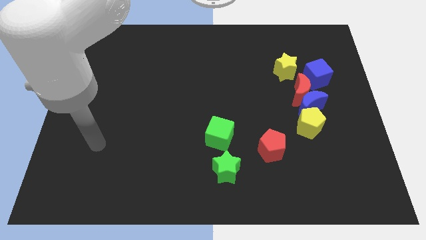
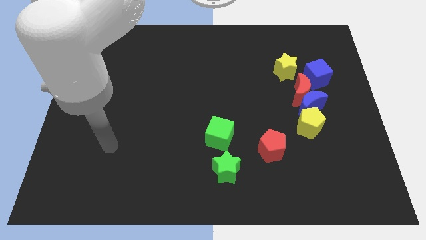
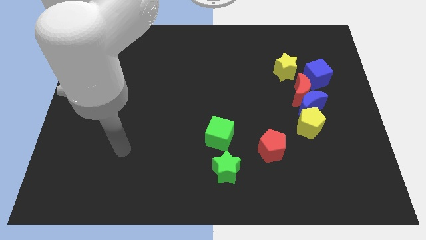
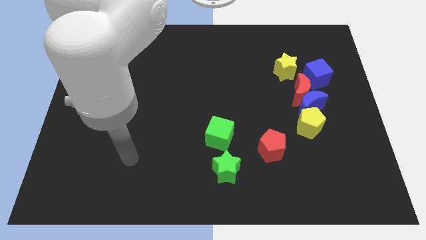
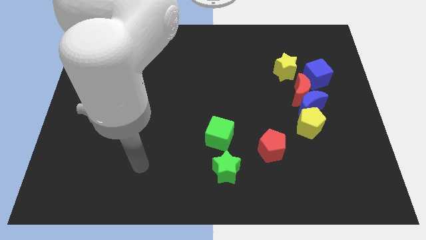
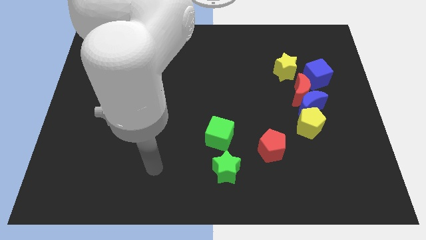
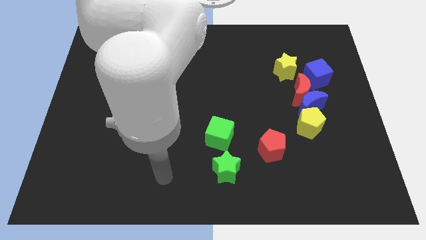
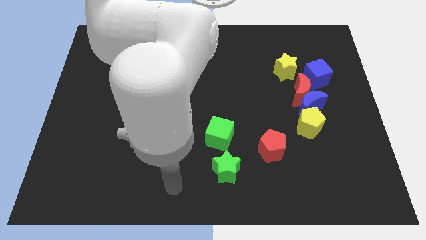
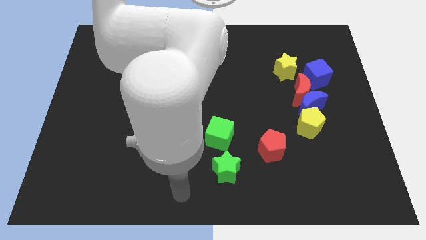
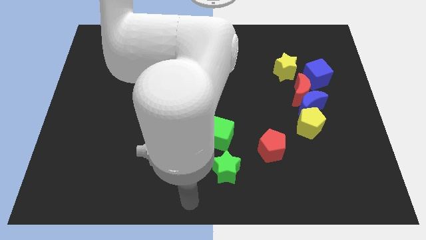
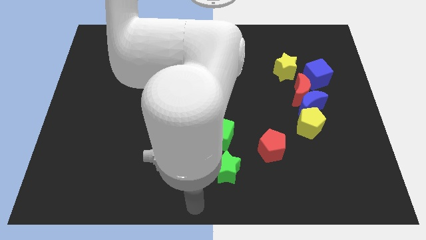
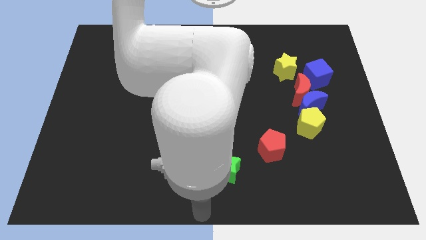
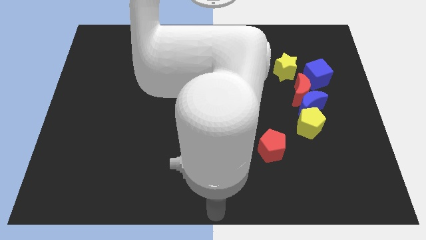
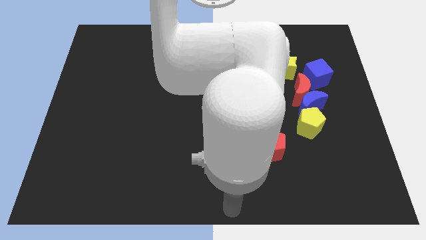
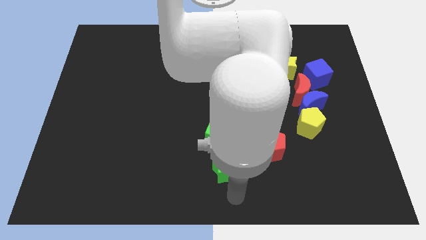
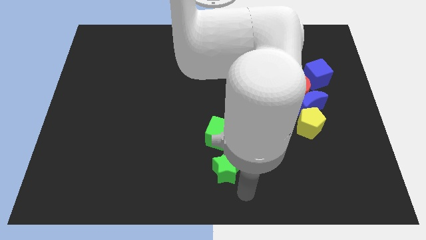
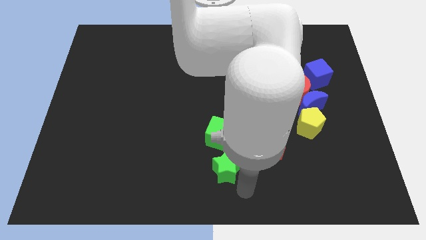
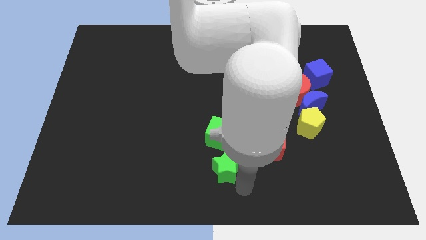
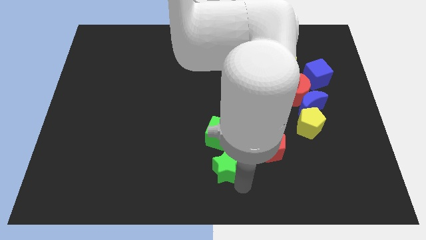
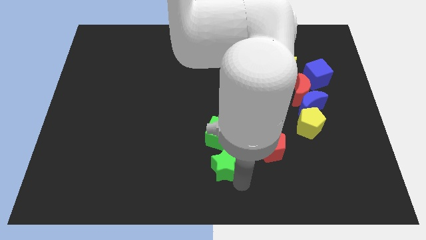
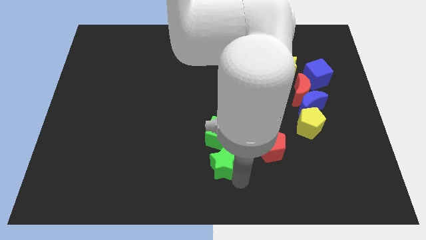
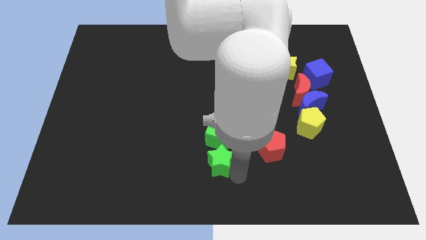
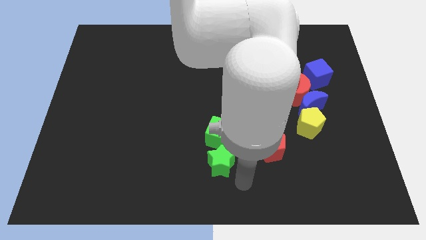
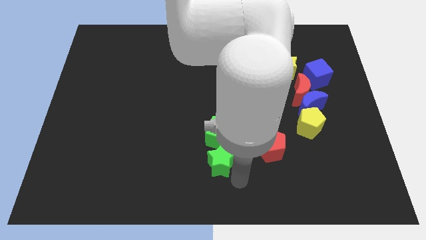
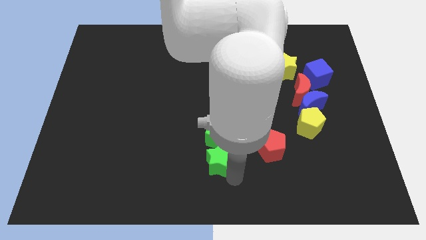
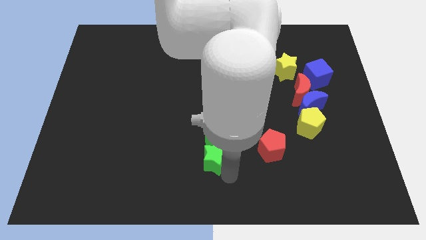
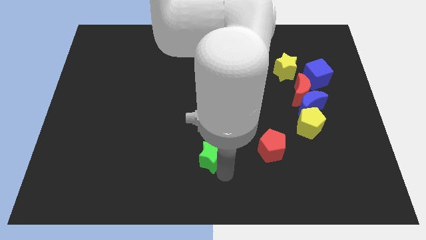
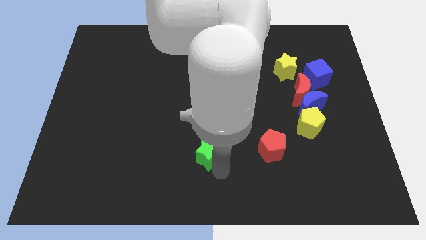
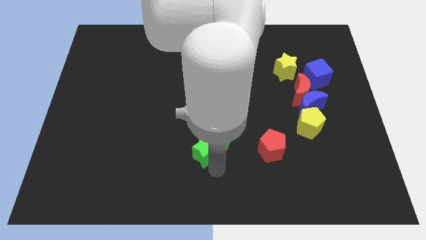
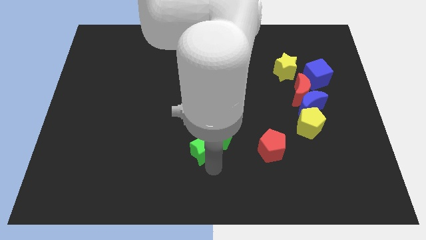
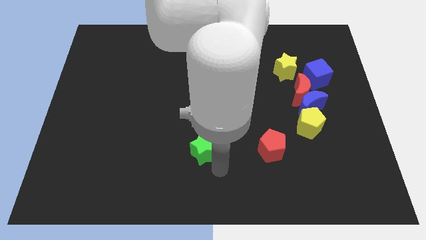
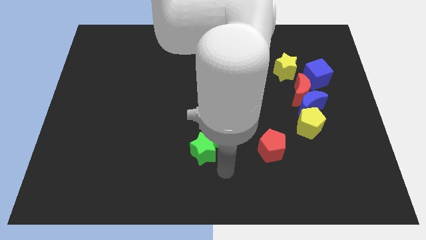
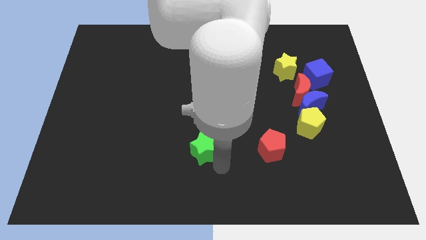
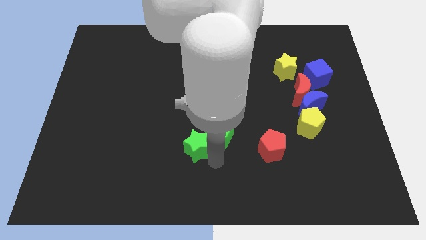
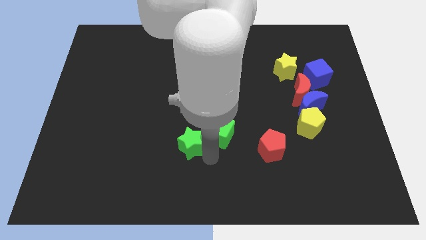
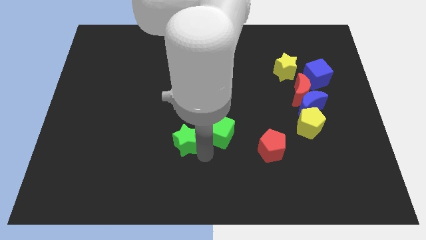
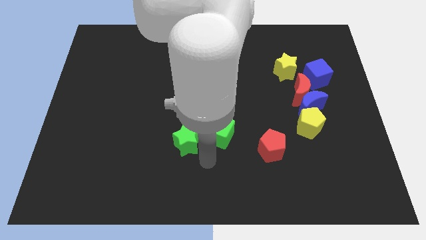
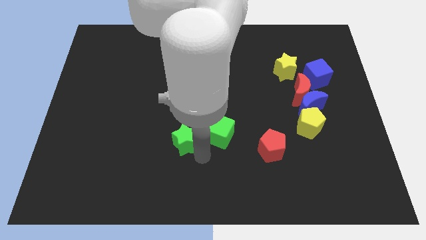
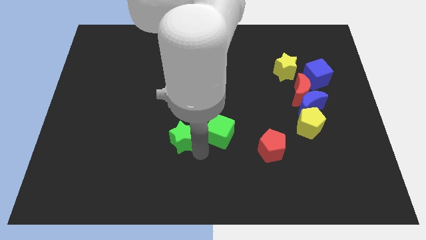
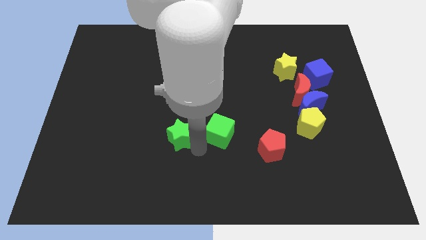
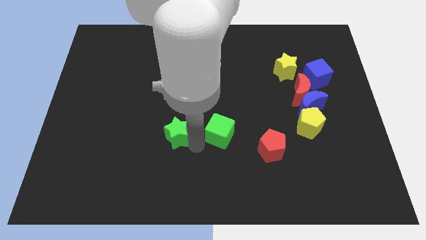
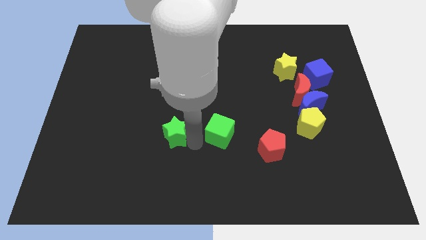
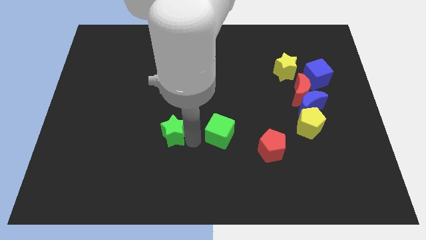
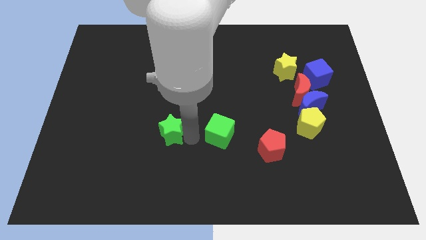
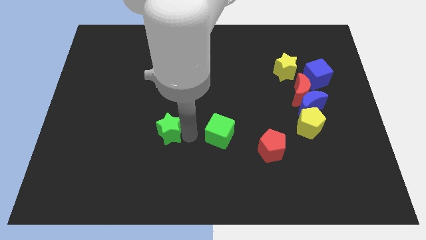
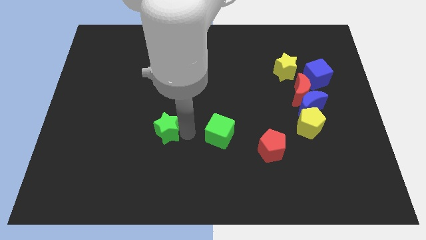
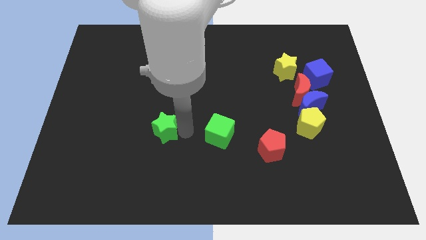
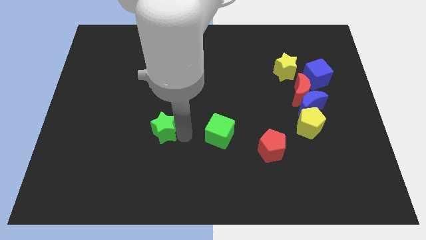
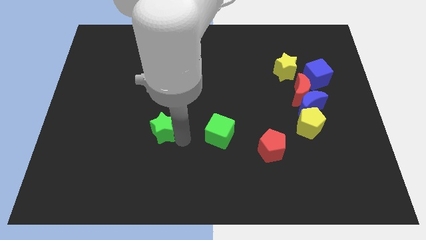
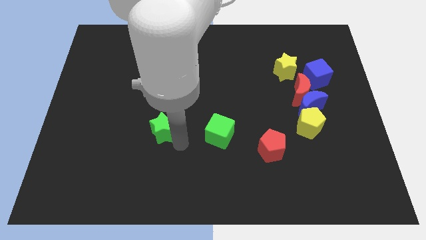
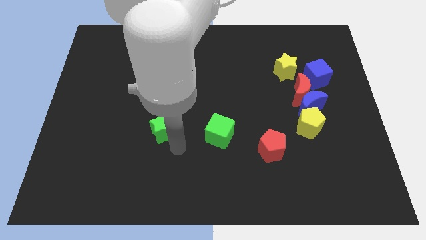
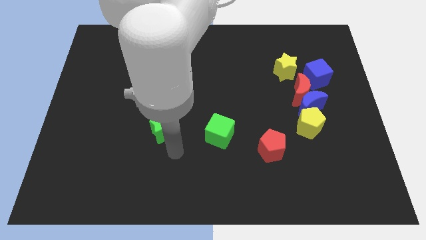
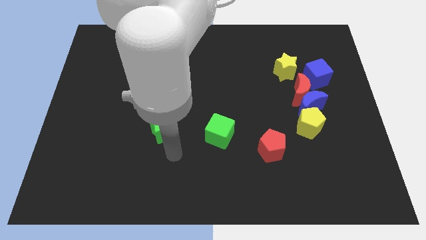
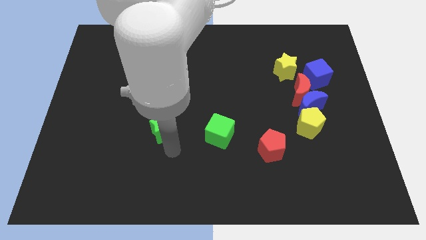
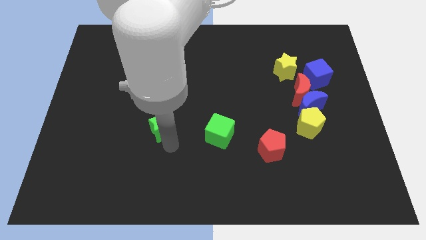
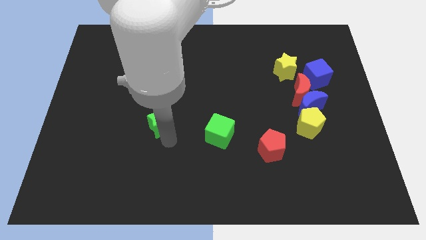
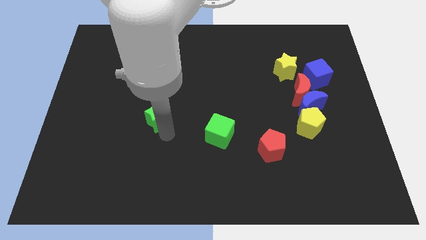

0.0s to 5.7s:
move the green star up and then left

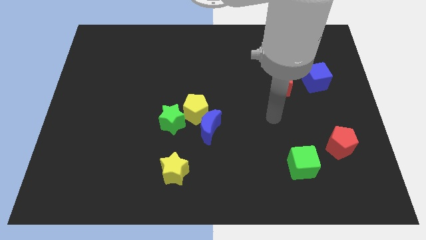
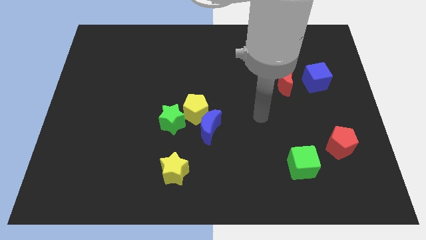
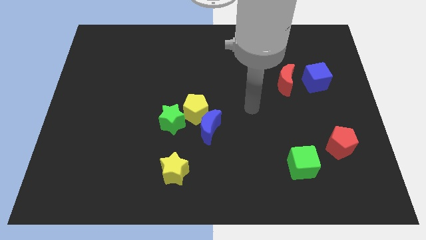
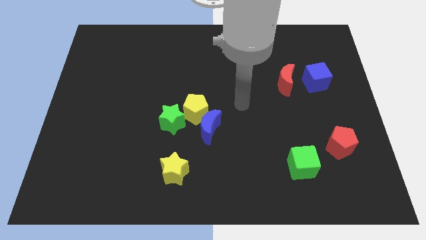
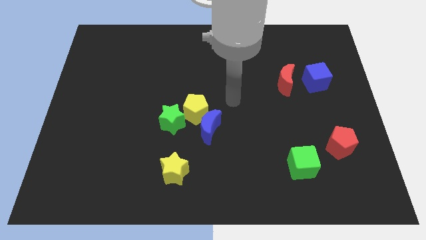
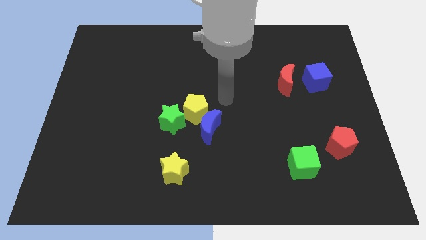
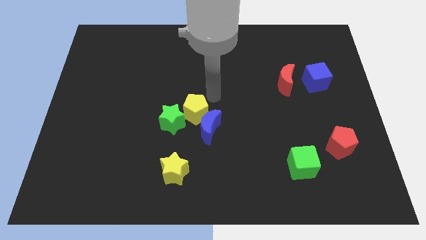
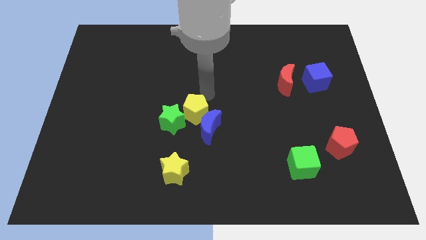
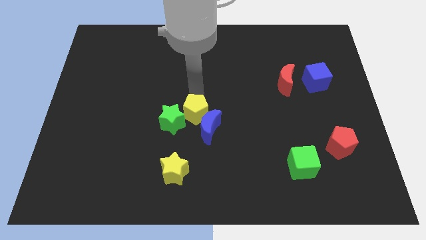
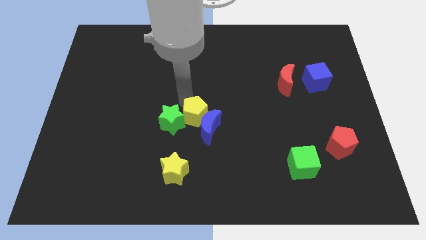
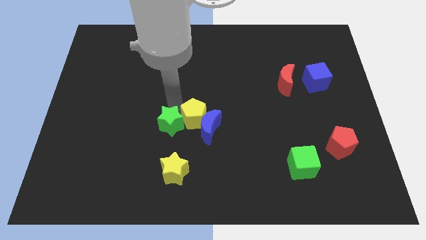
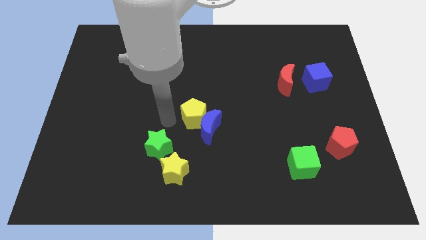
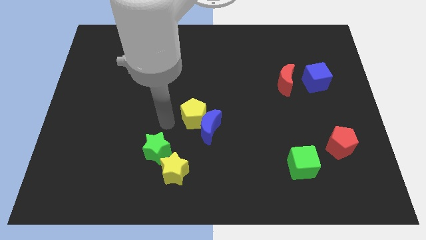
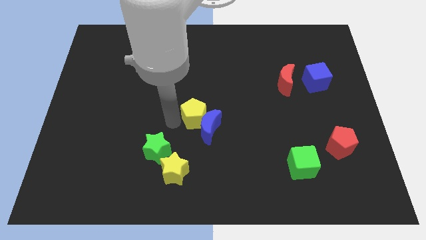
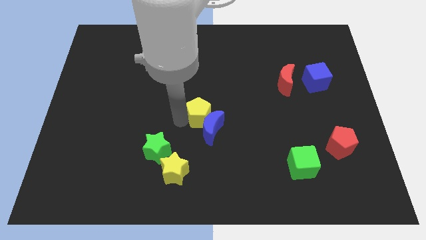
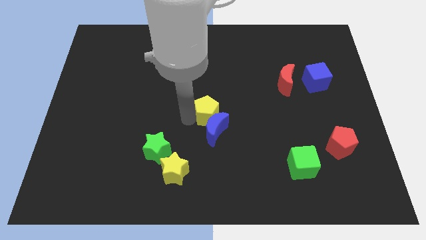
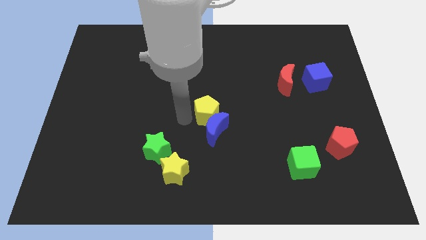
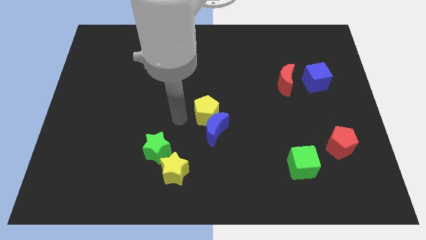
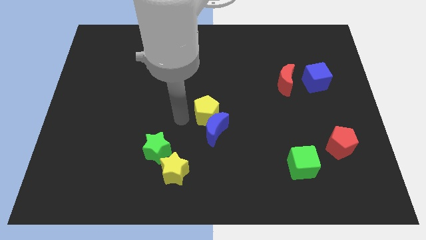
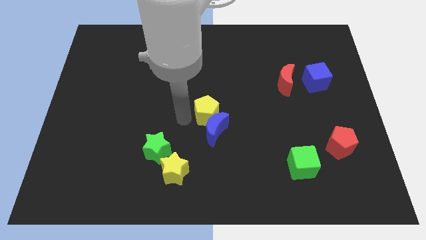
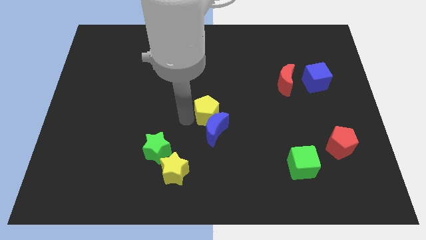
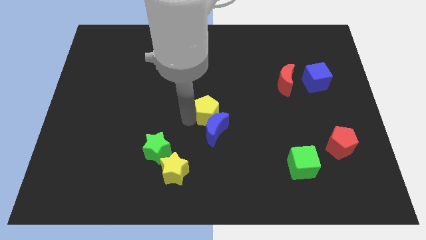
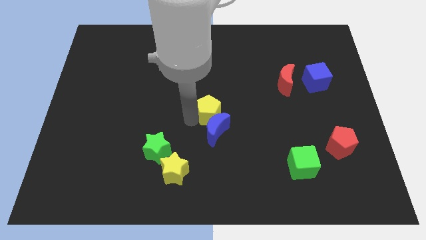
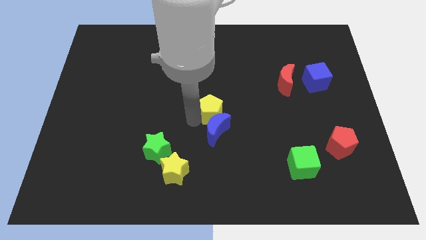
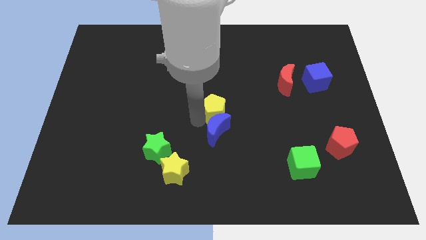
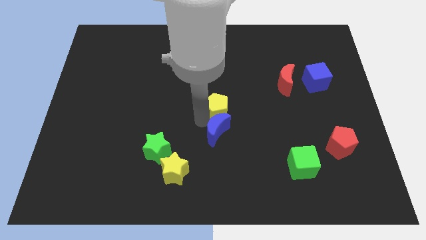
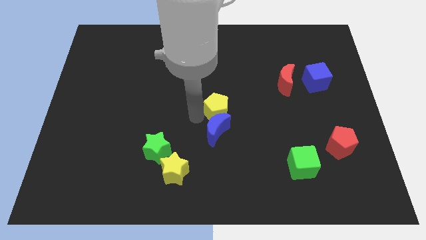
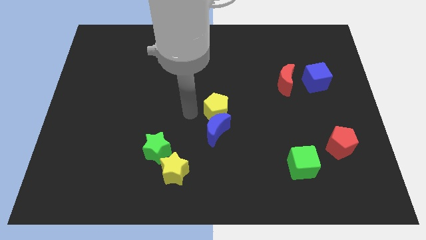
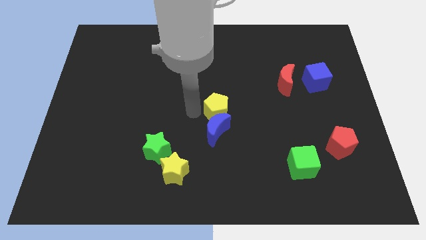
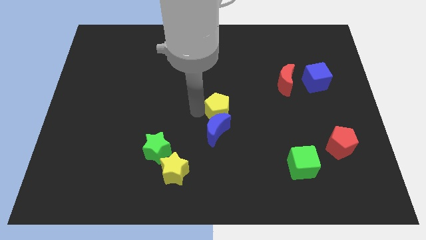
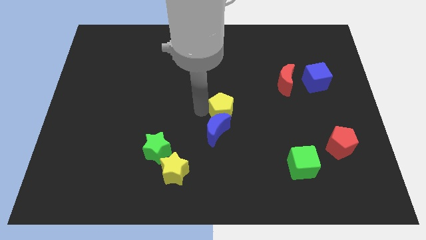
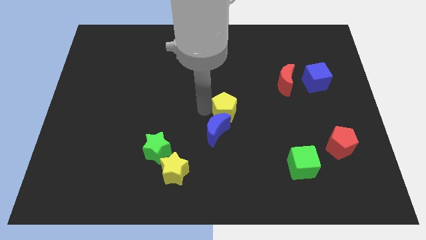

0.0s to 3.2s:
push the yellow pentagon a little bit right
